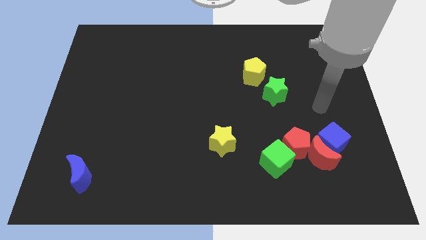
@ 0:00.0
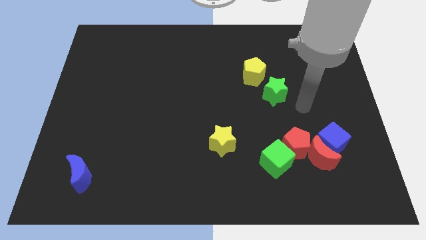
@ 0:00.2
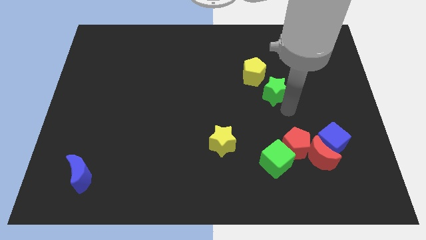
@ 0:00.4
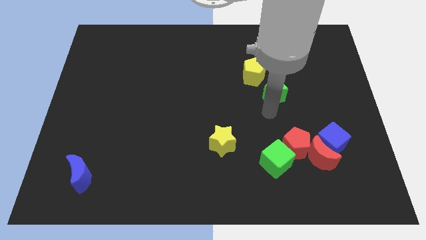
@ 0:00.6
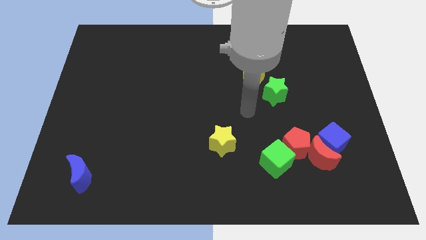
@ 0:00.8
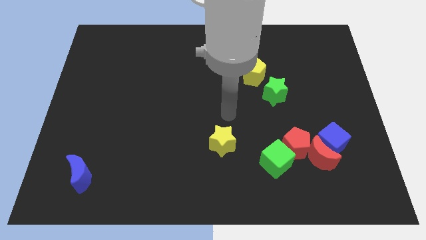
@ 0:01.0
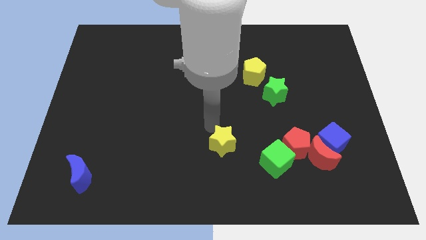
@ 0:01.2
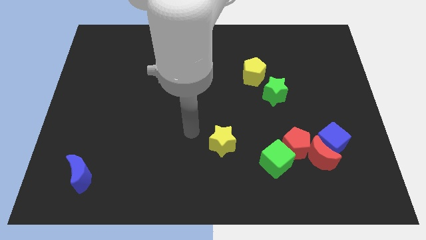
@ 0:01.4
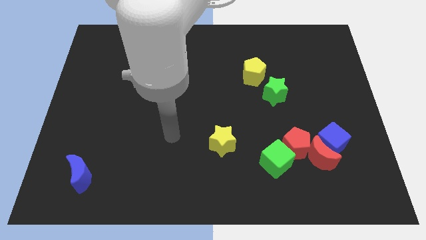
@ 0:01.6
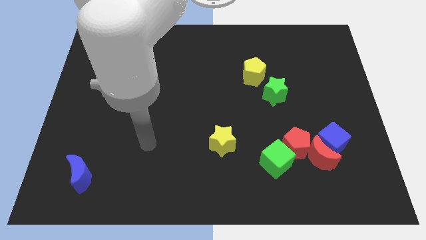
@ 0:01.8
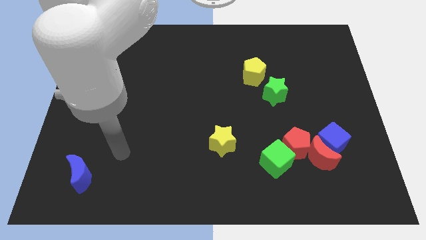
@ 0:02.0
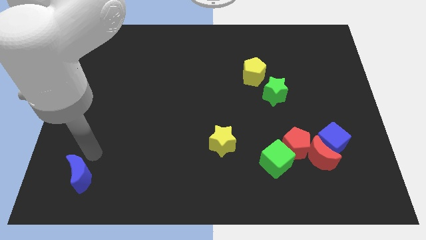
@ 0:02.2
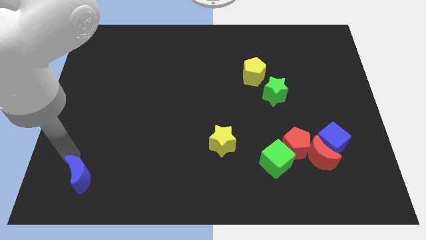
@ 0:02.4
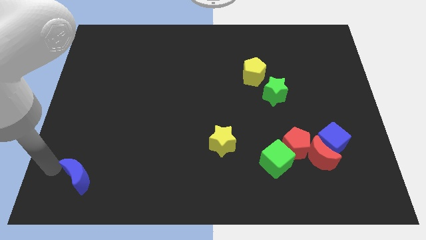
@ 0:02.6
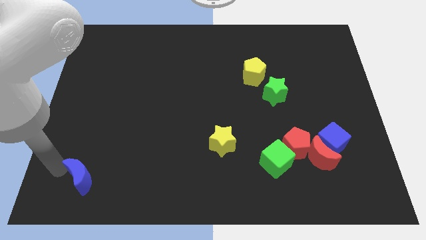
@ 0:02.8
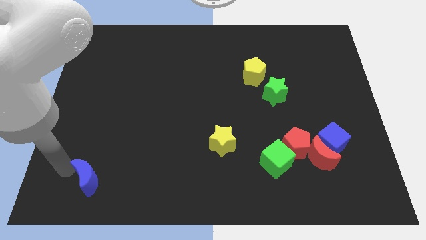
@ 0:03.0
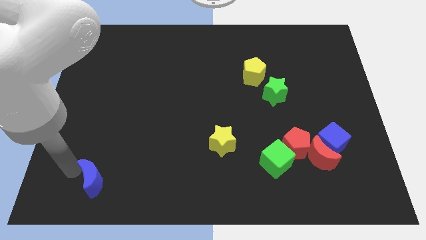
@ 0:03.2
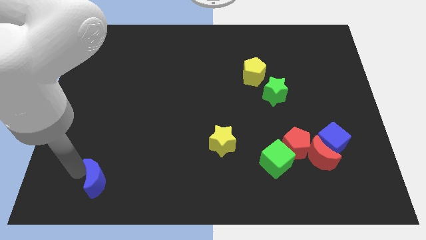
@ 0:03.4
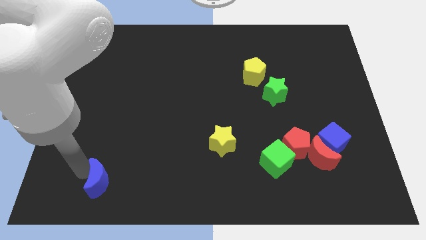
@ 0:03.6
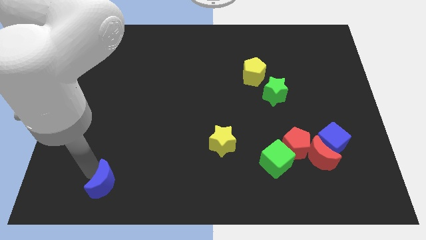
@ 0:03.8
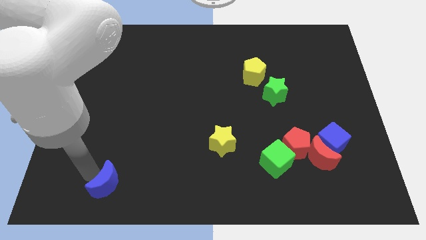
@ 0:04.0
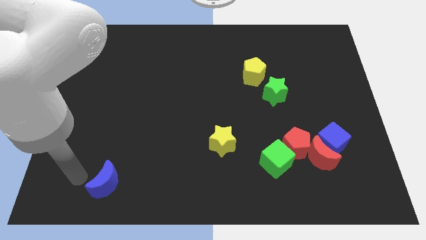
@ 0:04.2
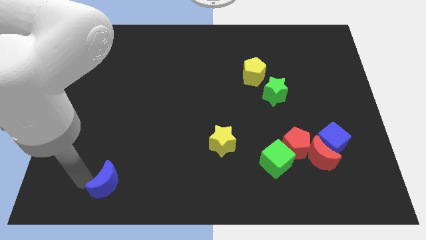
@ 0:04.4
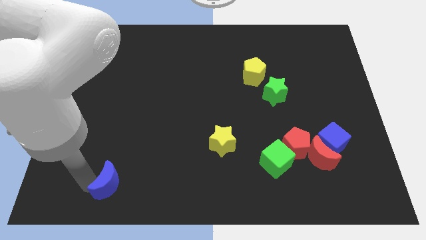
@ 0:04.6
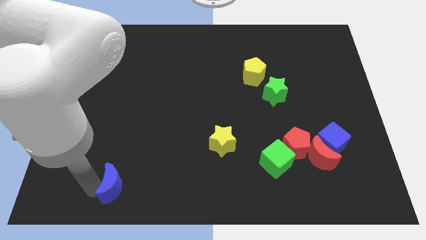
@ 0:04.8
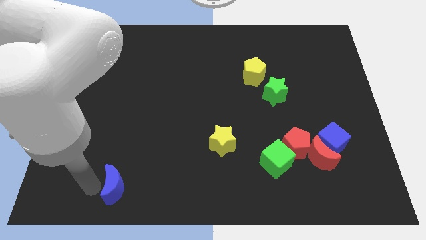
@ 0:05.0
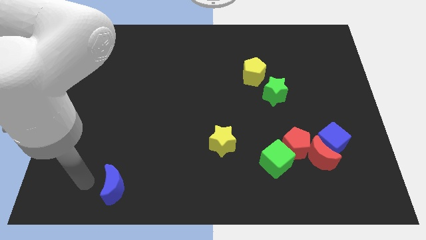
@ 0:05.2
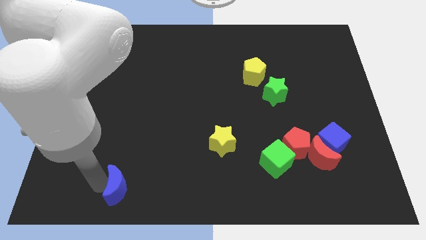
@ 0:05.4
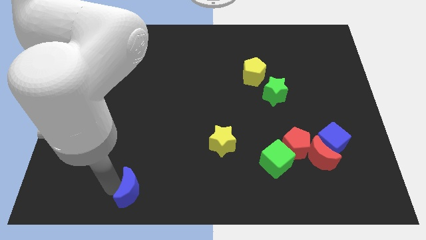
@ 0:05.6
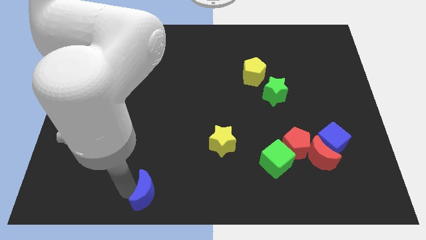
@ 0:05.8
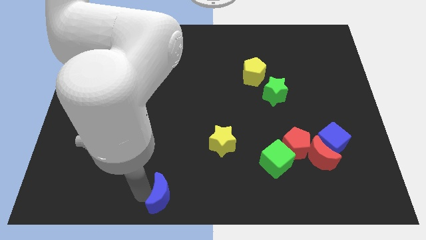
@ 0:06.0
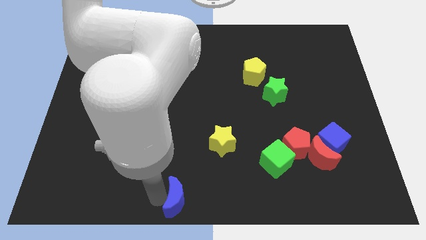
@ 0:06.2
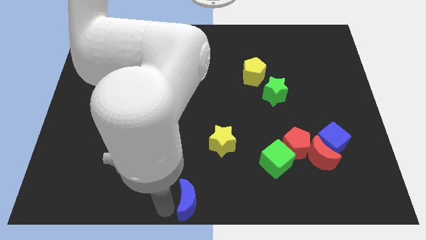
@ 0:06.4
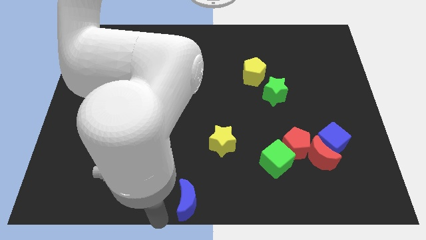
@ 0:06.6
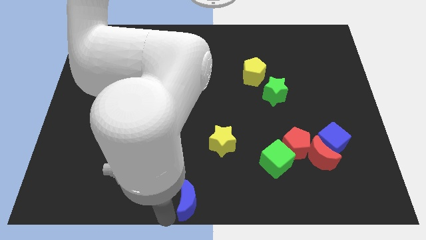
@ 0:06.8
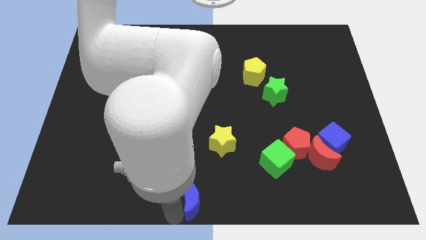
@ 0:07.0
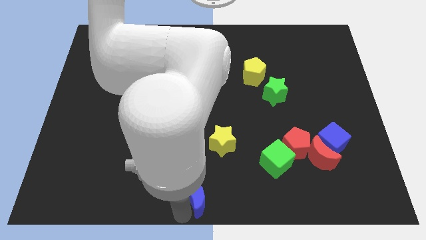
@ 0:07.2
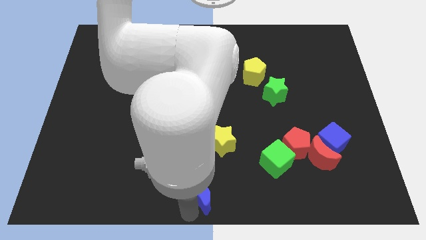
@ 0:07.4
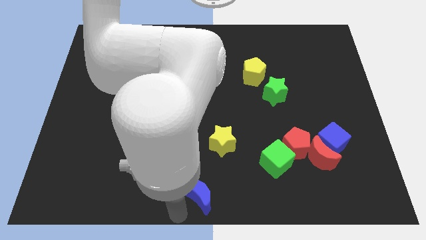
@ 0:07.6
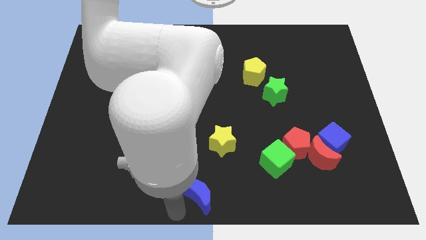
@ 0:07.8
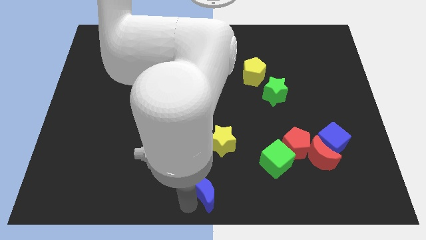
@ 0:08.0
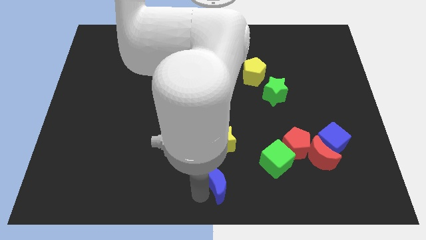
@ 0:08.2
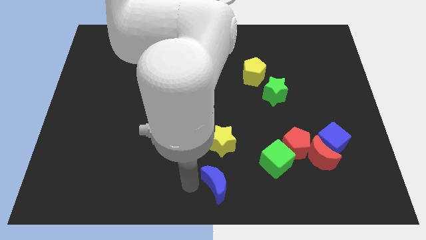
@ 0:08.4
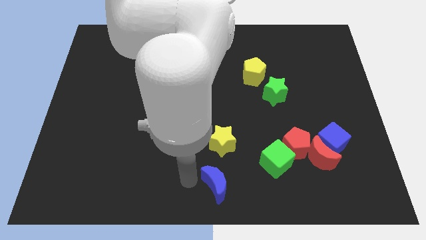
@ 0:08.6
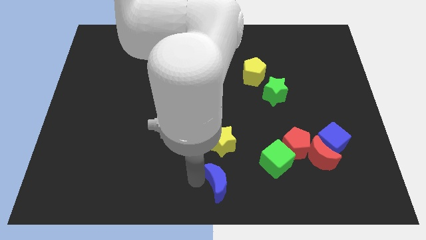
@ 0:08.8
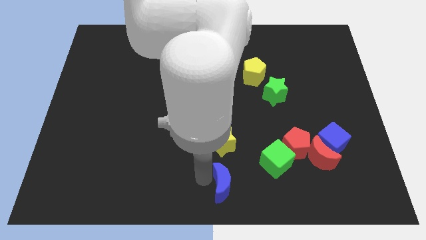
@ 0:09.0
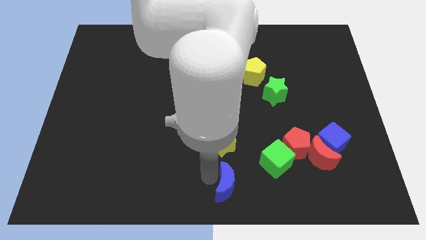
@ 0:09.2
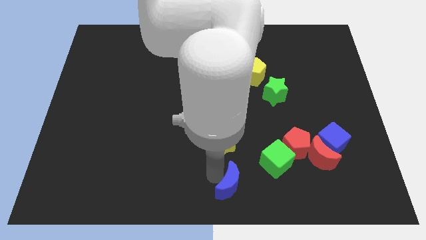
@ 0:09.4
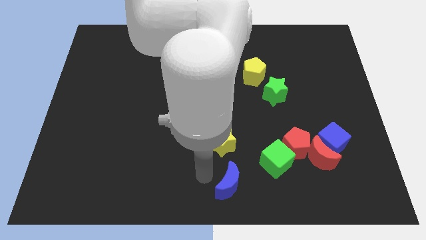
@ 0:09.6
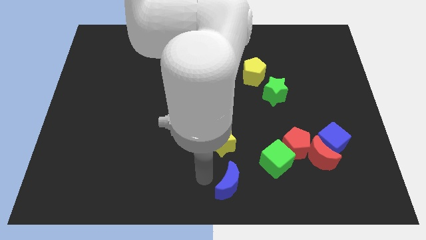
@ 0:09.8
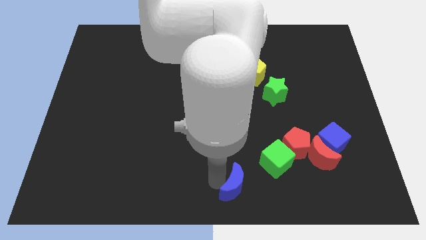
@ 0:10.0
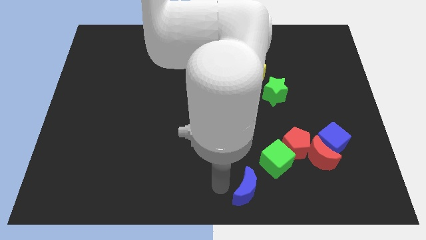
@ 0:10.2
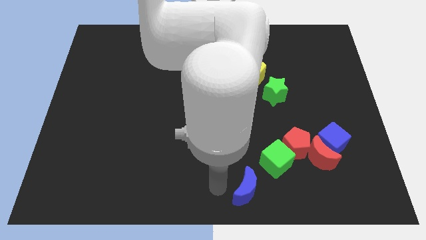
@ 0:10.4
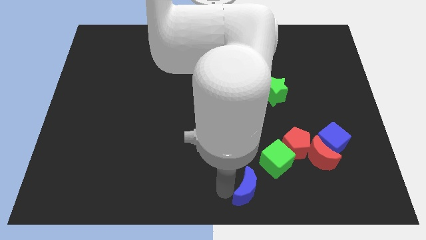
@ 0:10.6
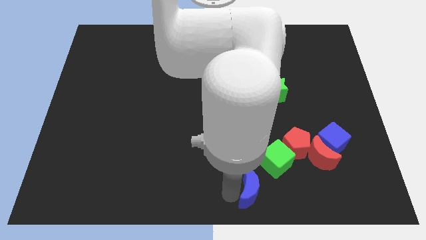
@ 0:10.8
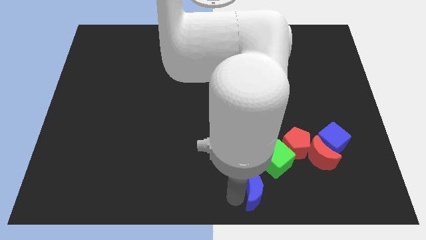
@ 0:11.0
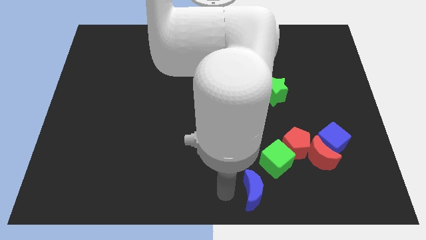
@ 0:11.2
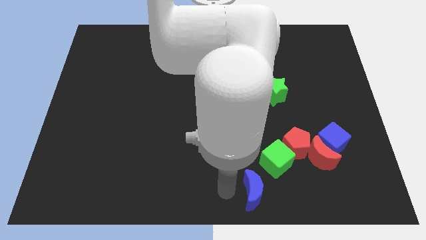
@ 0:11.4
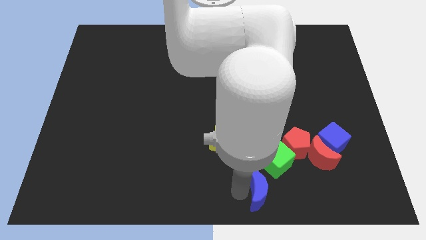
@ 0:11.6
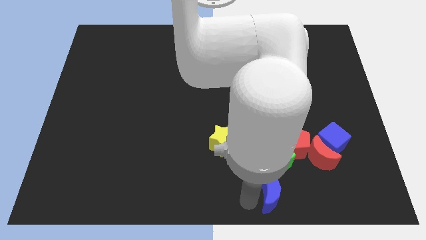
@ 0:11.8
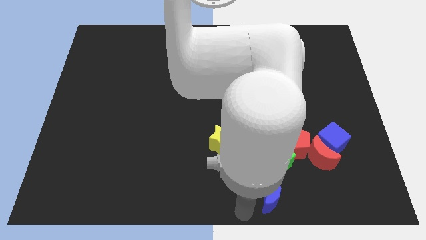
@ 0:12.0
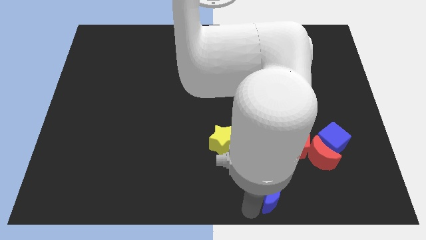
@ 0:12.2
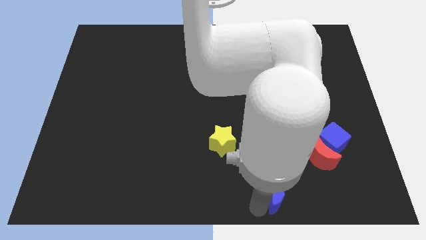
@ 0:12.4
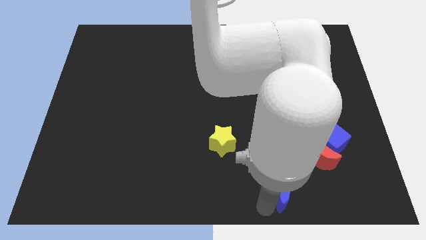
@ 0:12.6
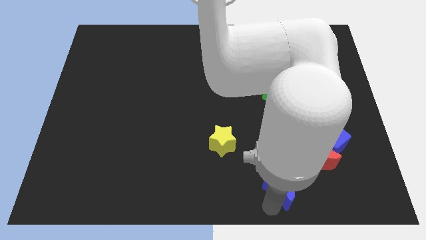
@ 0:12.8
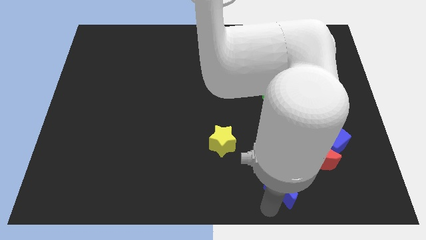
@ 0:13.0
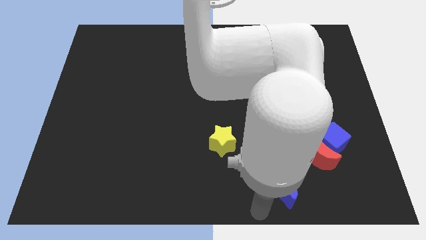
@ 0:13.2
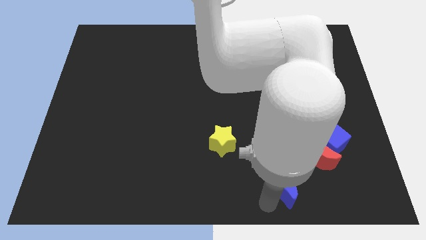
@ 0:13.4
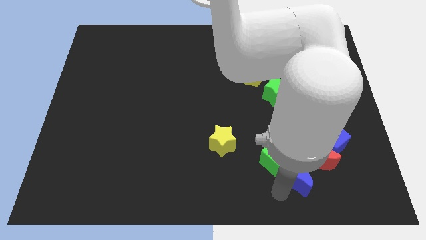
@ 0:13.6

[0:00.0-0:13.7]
move the blue moon to the bottom left of the blue cube
